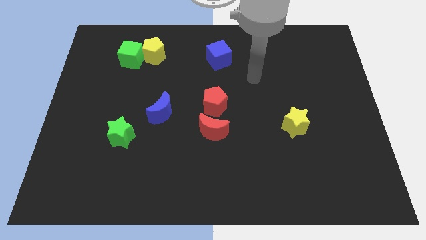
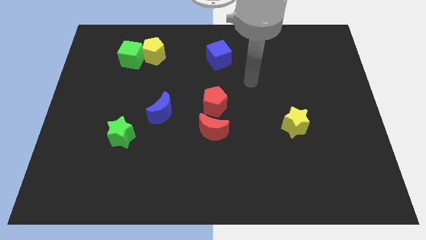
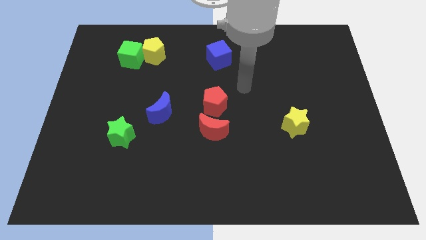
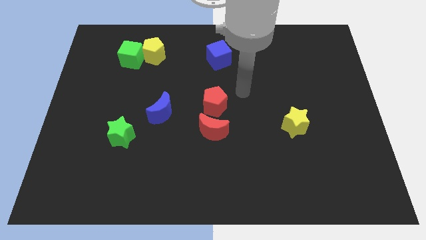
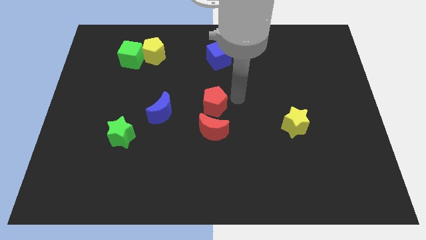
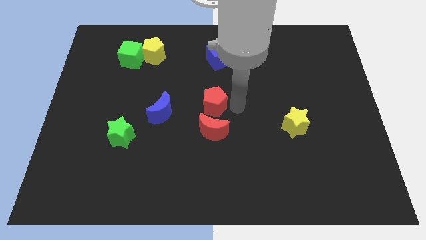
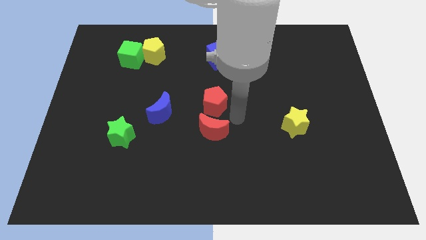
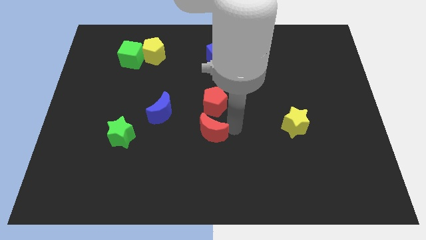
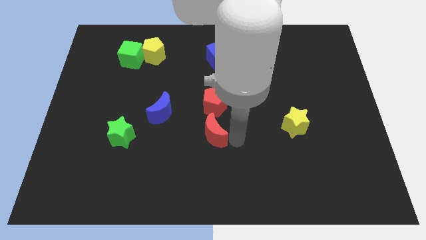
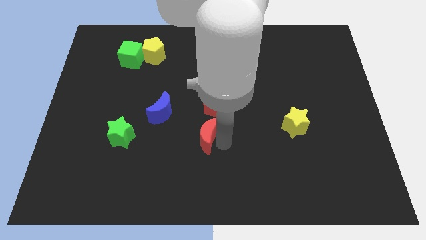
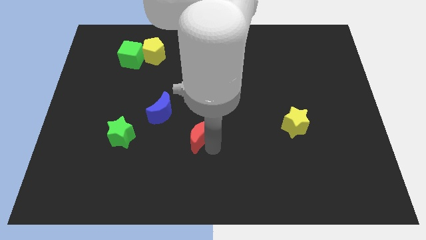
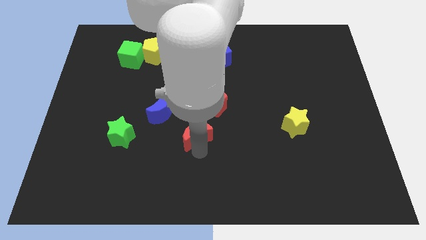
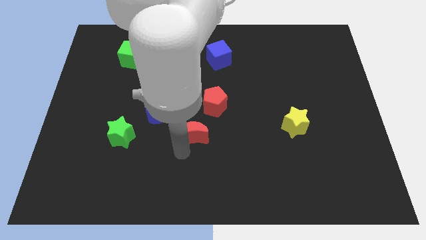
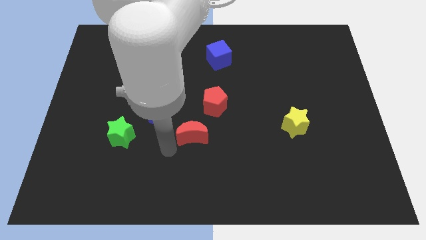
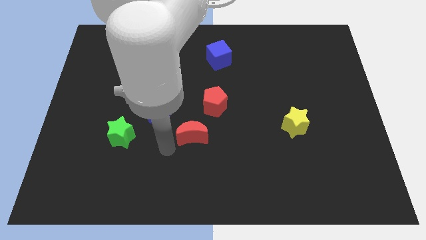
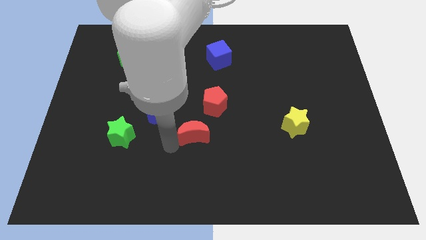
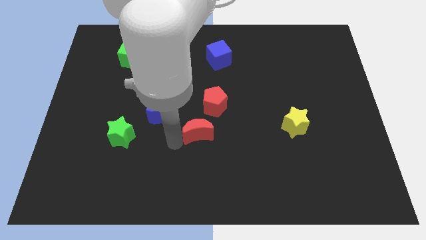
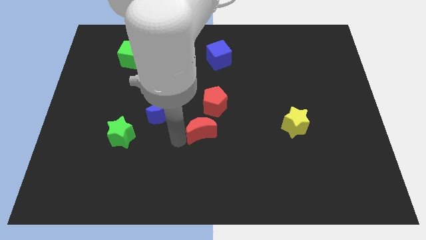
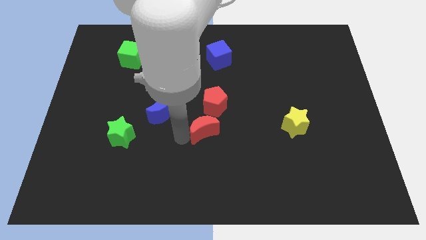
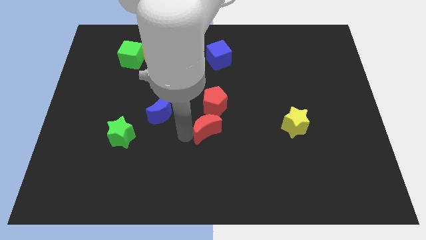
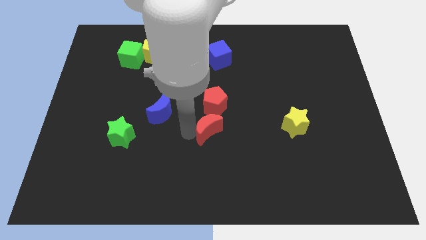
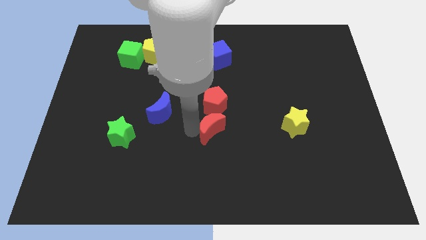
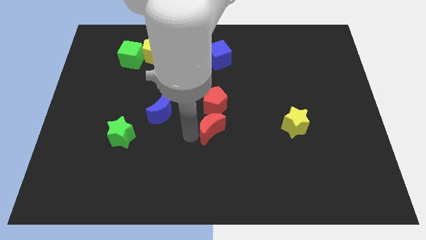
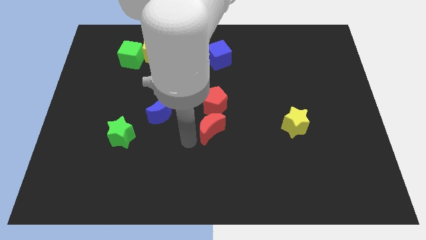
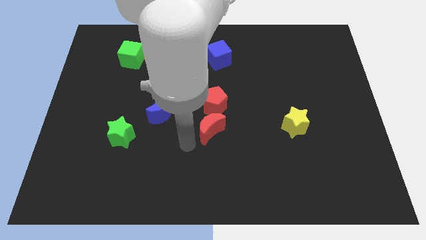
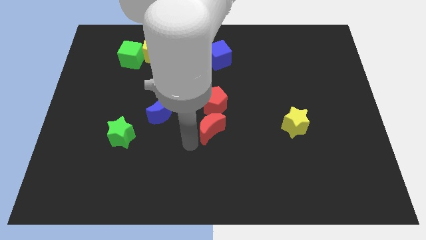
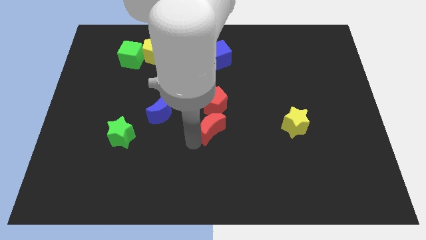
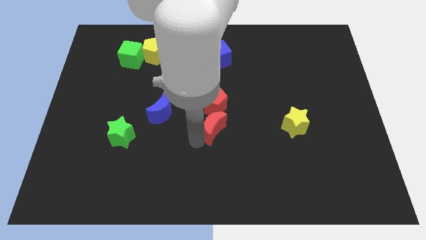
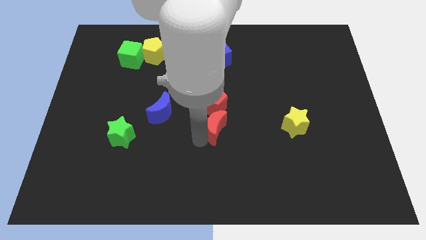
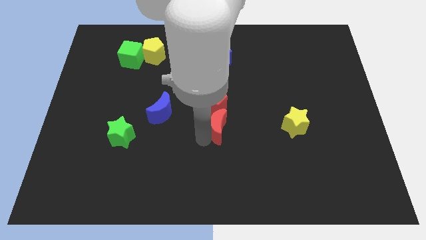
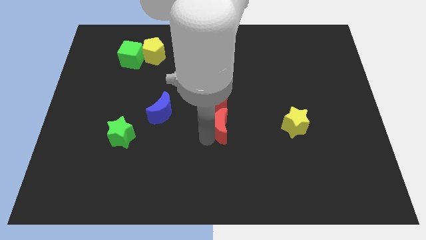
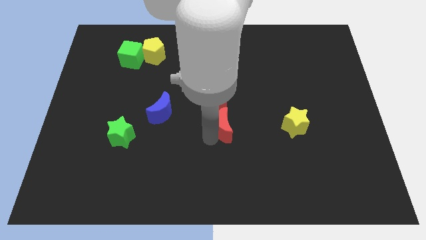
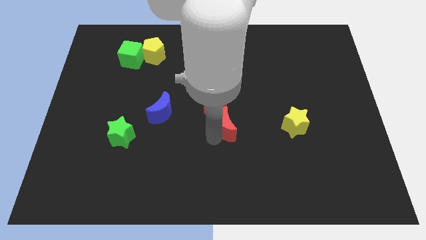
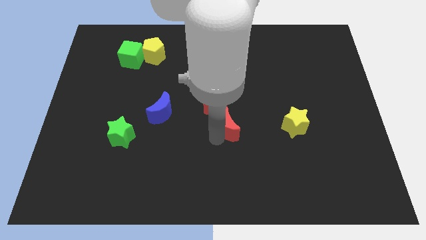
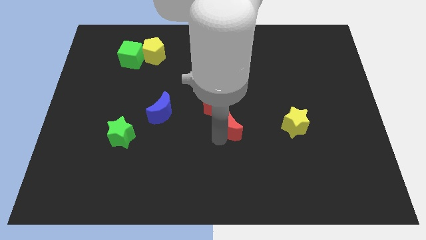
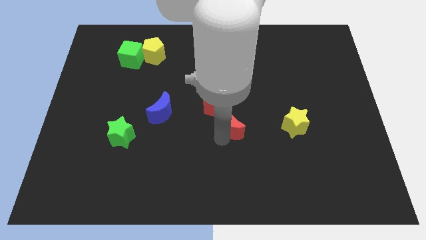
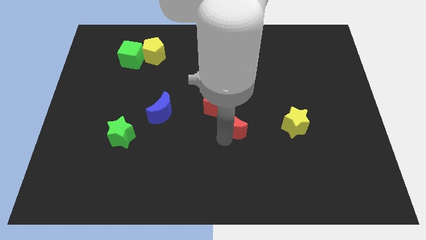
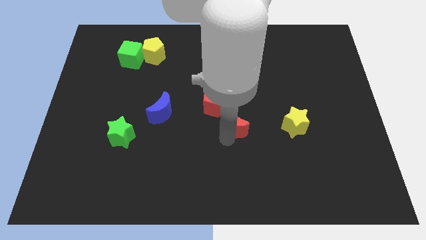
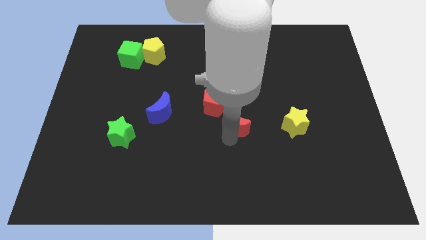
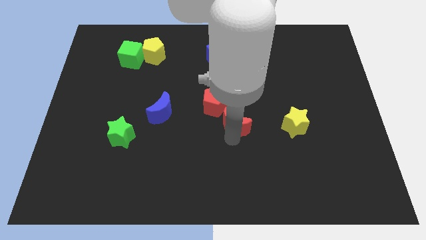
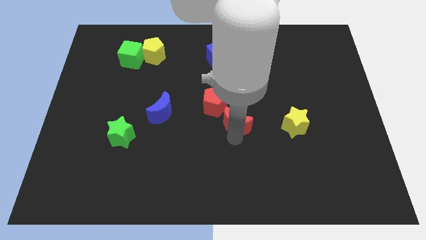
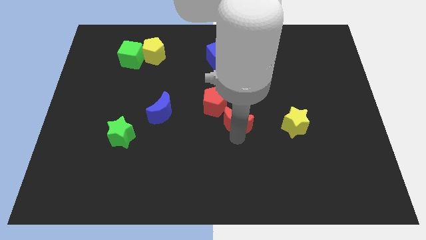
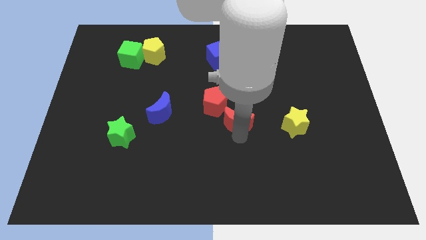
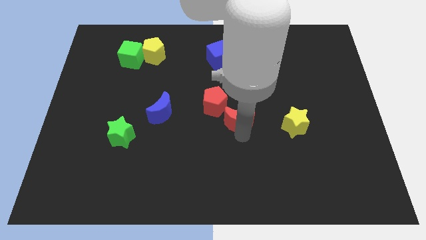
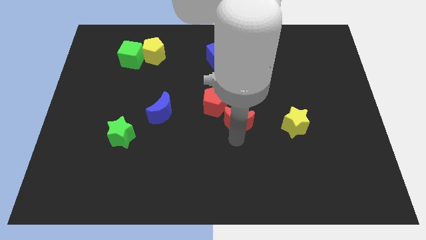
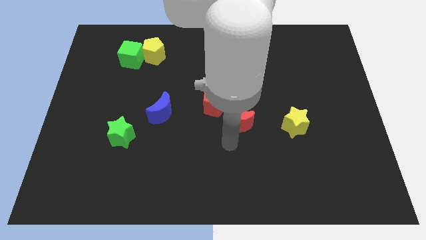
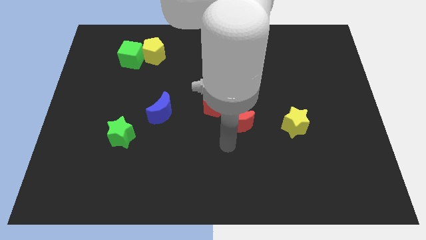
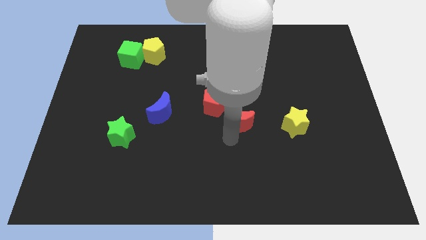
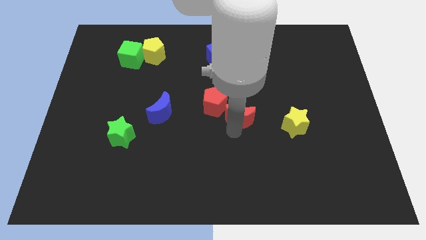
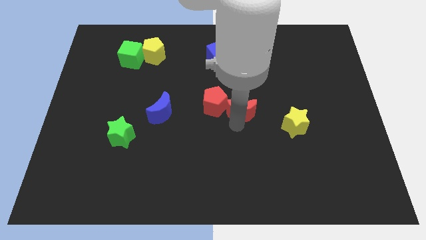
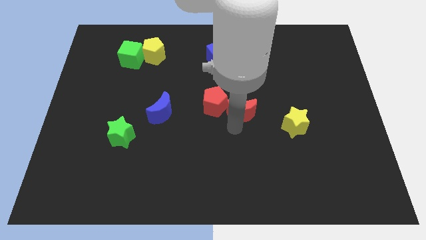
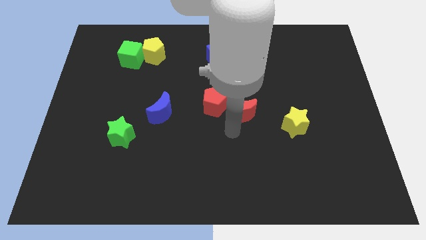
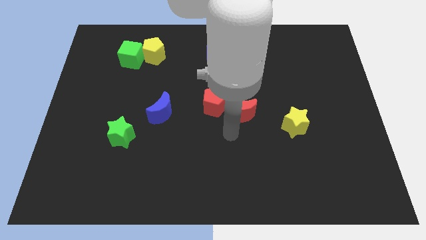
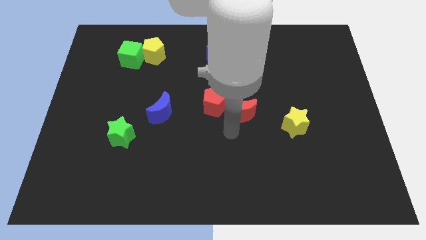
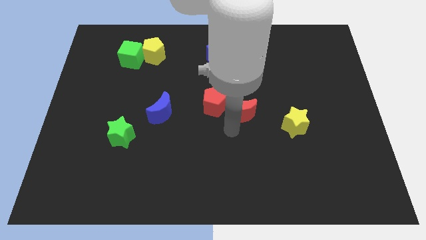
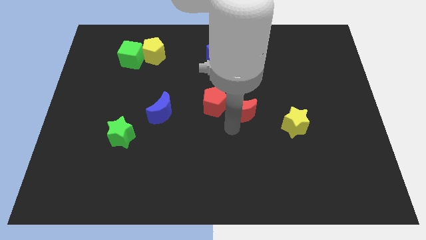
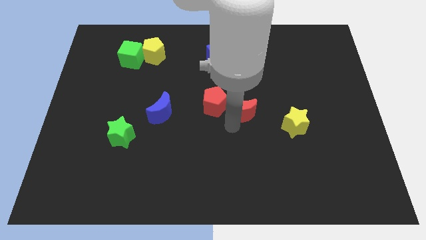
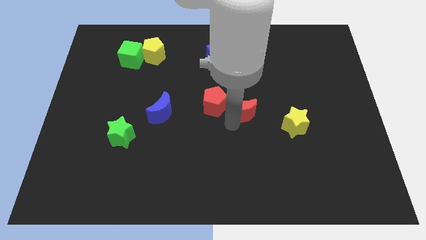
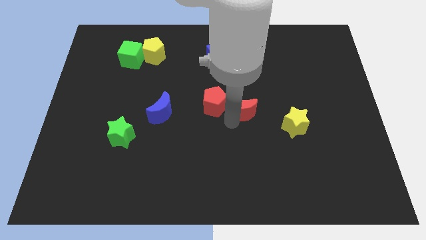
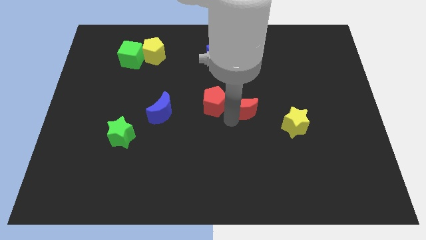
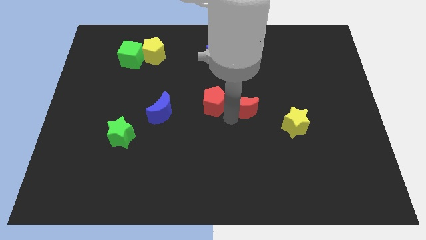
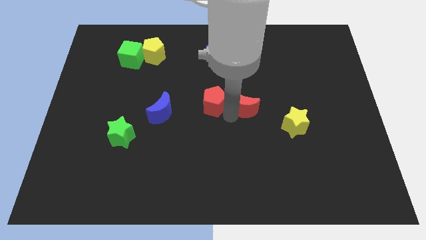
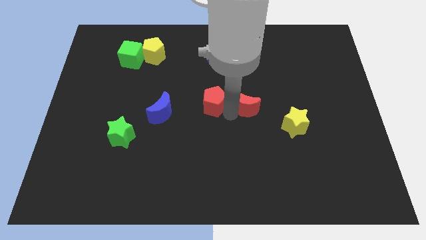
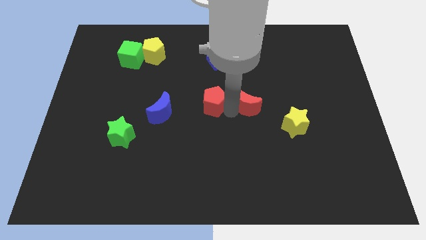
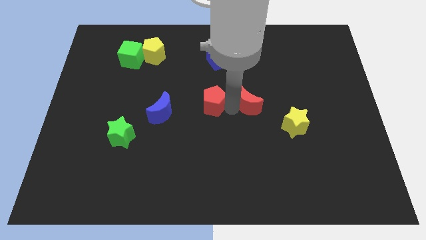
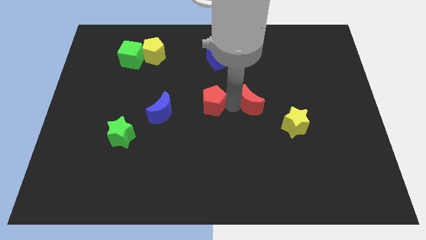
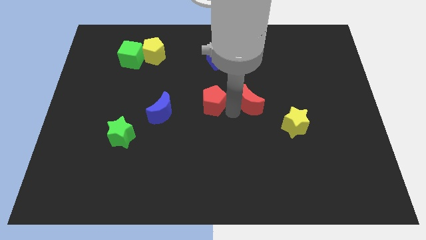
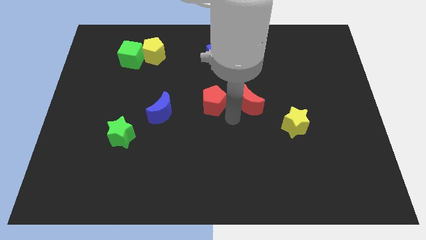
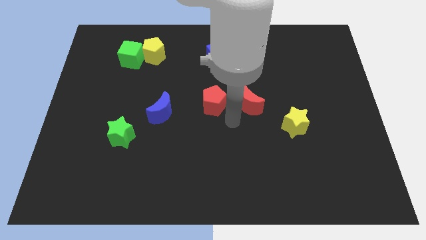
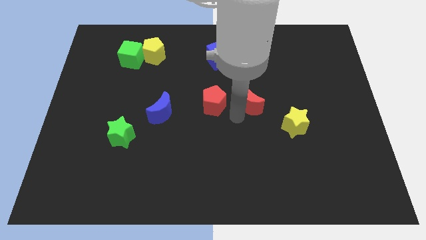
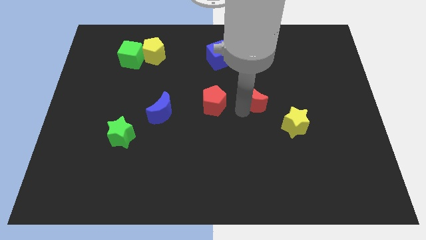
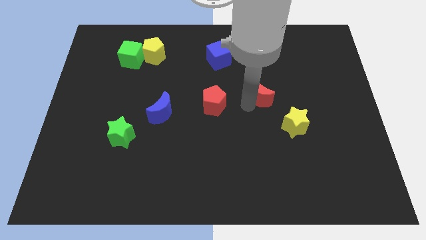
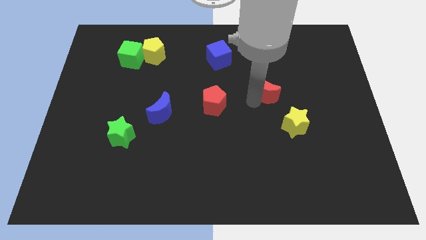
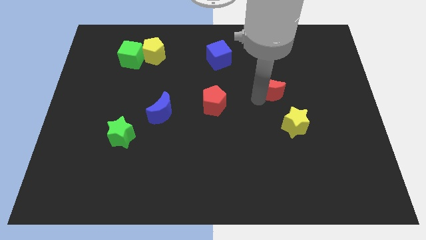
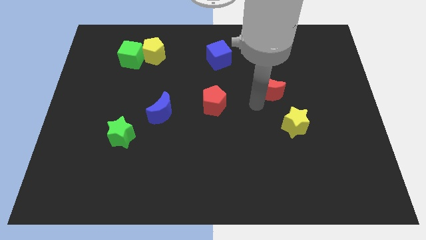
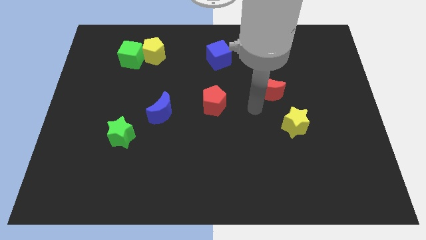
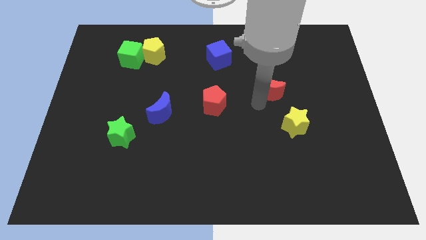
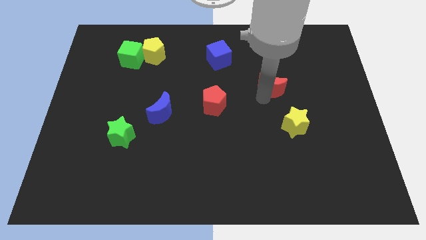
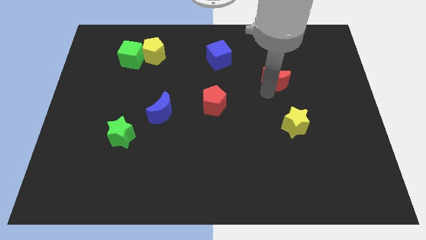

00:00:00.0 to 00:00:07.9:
slide the red moon upwards and to the right diagonally
